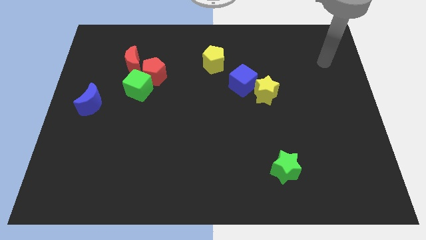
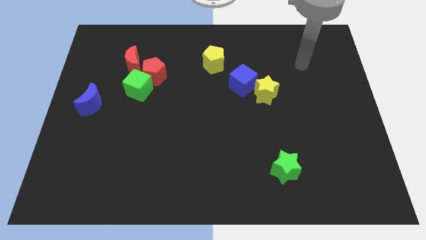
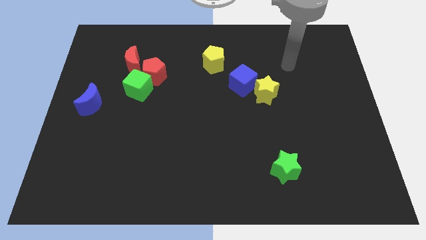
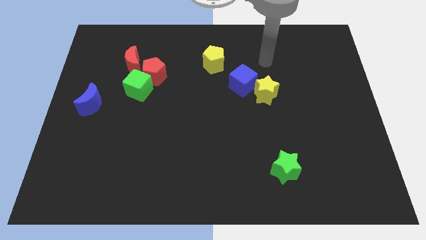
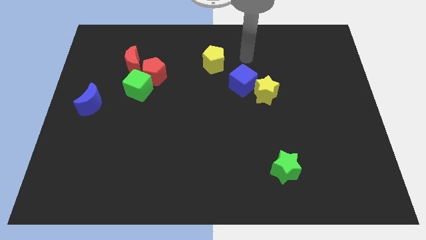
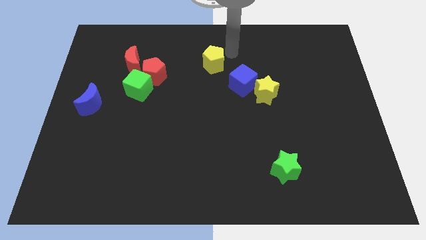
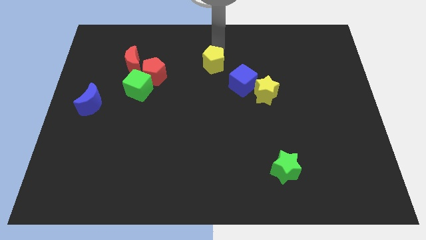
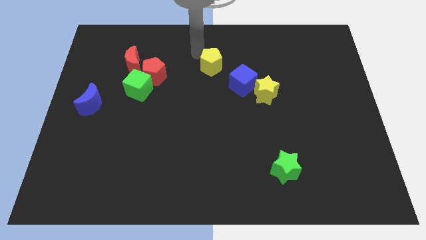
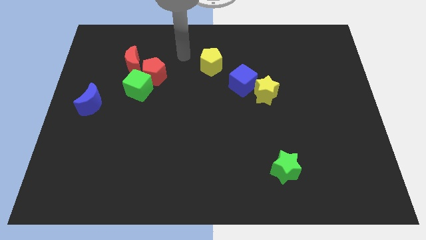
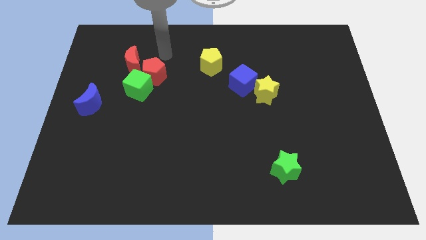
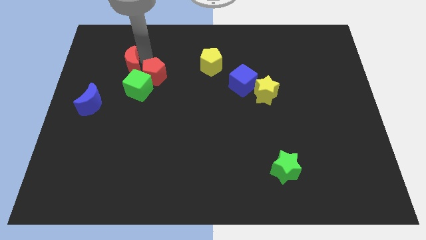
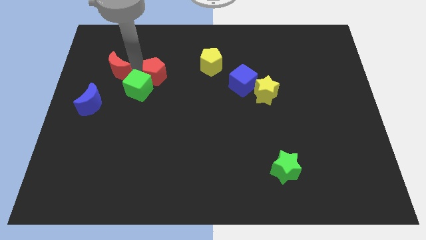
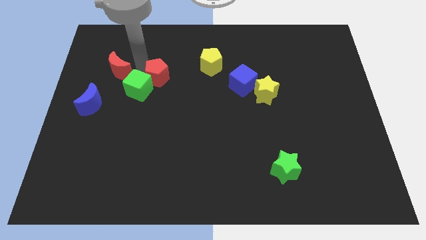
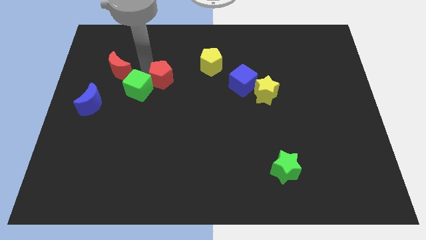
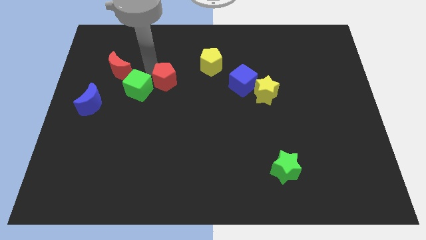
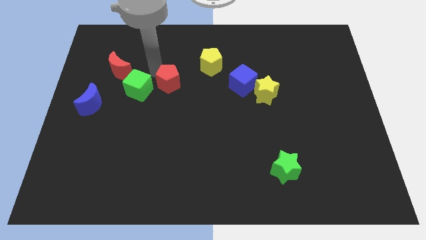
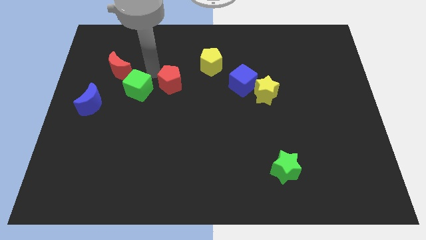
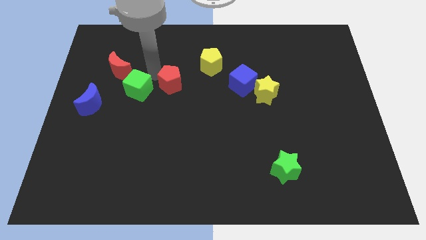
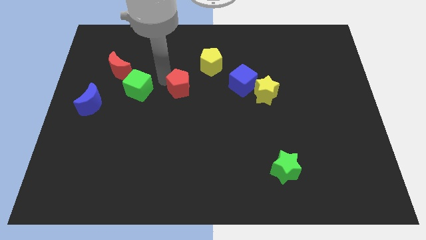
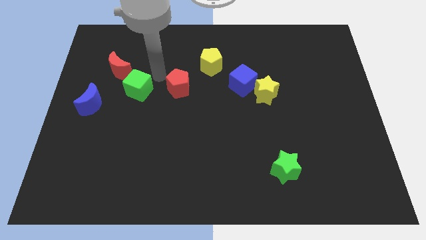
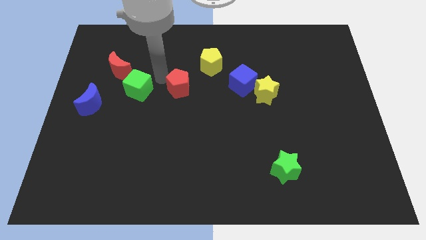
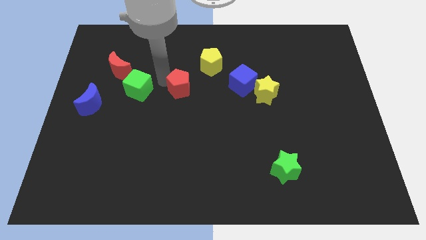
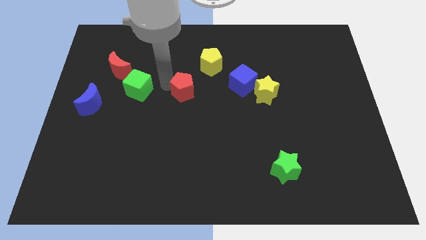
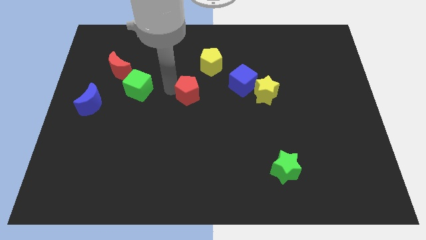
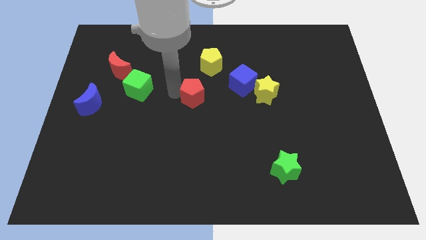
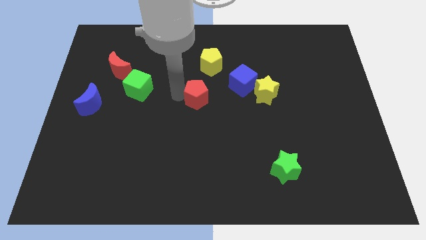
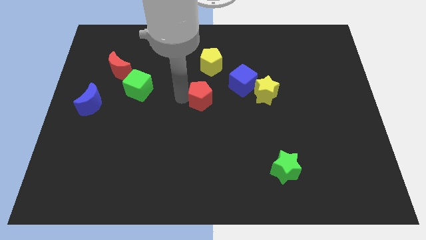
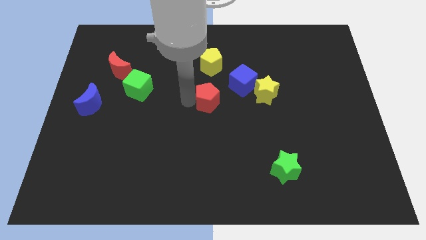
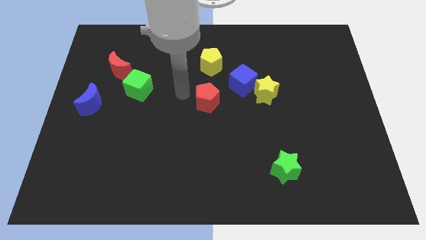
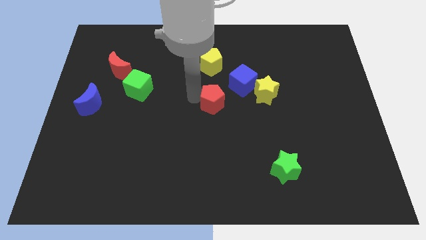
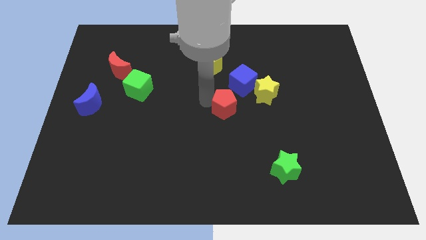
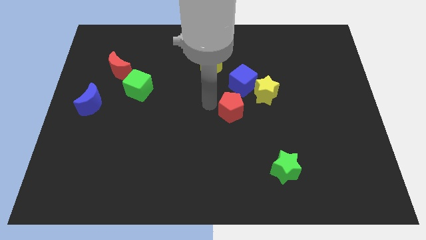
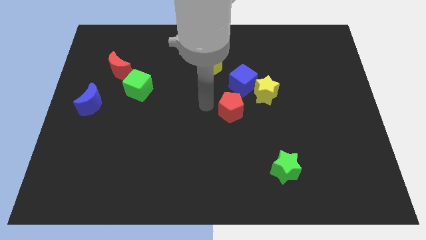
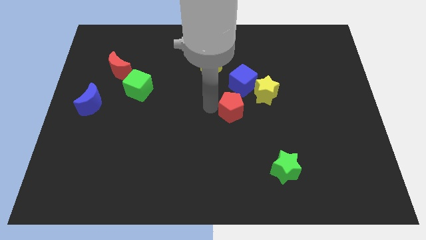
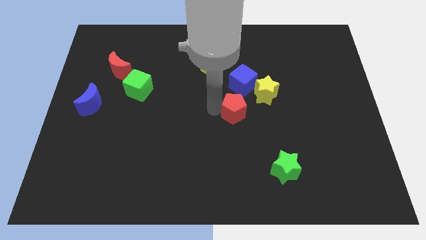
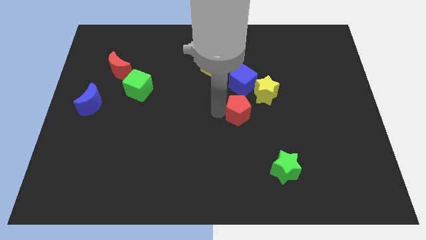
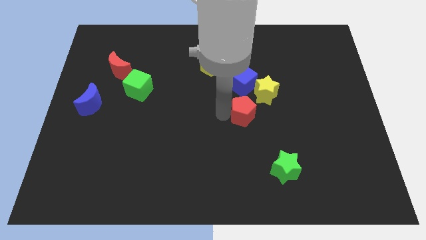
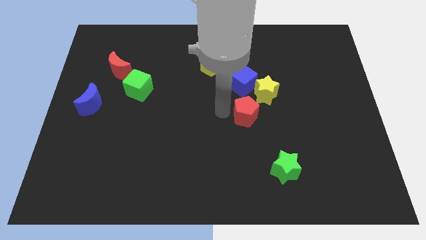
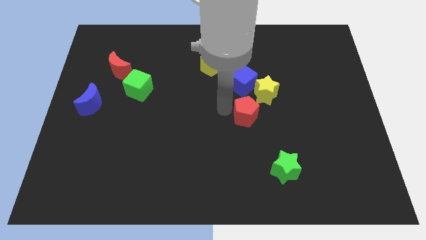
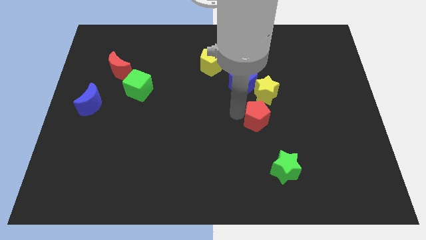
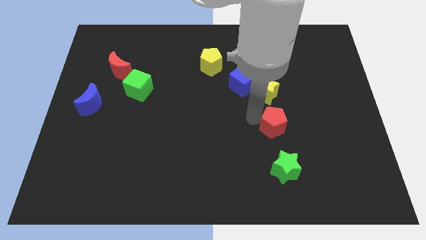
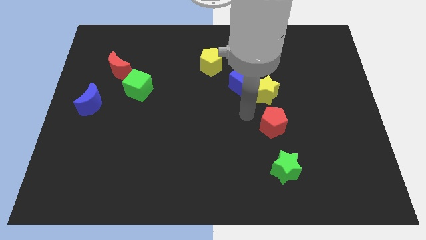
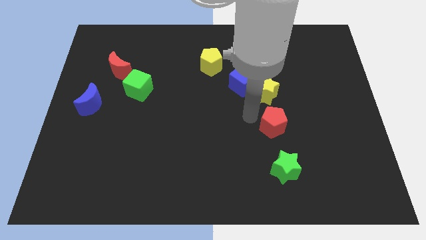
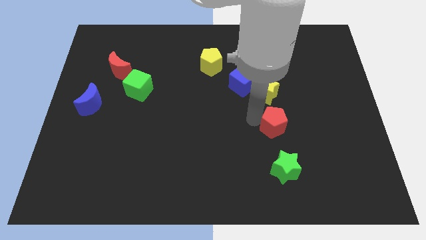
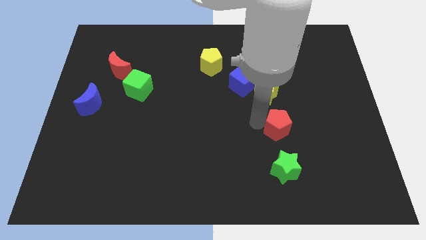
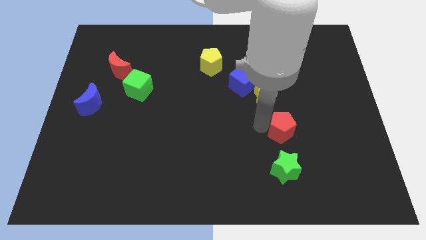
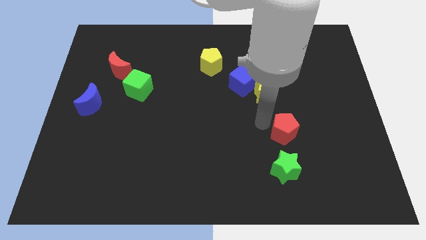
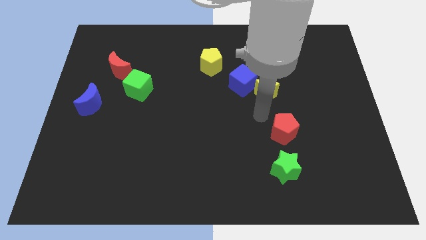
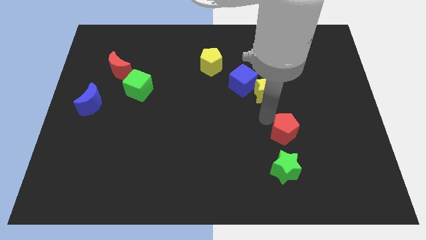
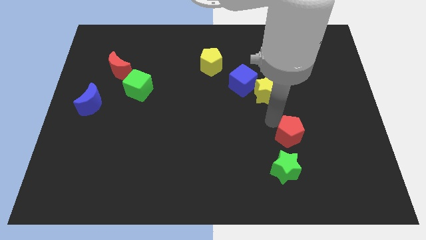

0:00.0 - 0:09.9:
slide the red pentagon to the top right side of the green star

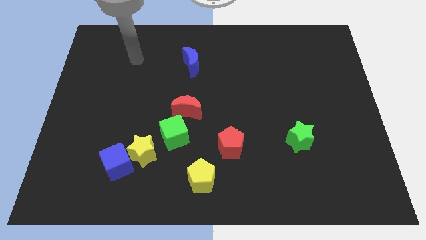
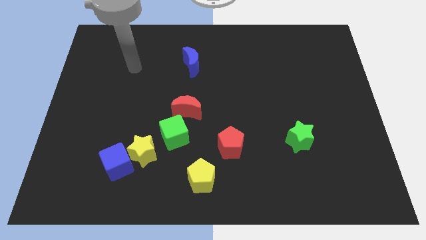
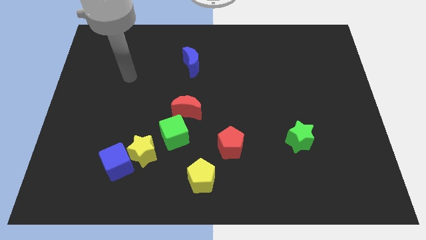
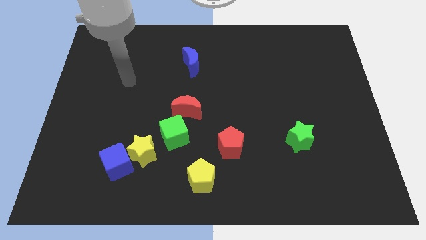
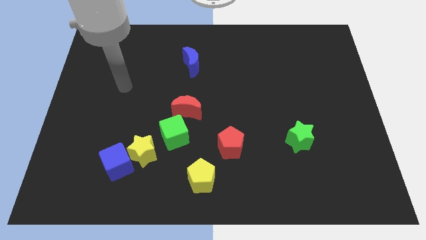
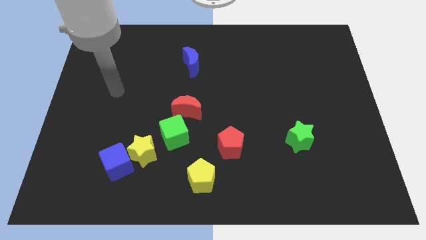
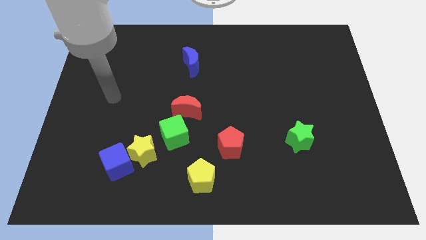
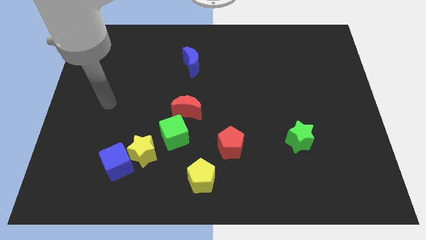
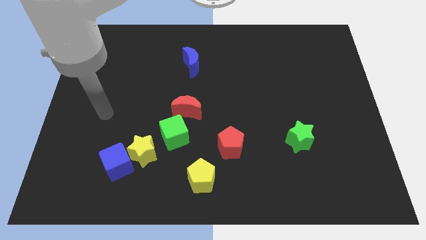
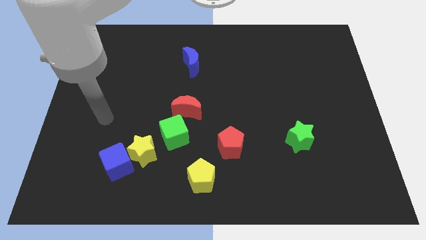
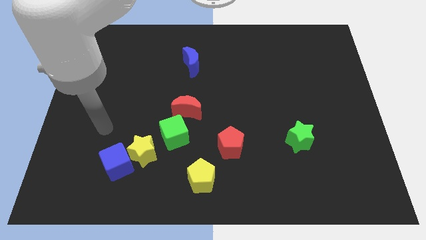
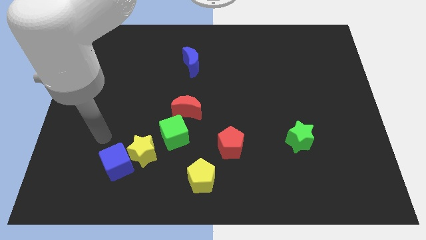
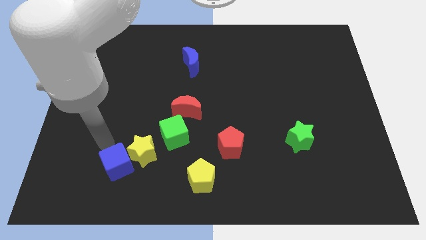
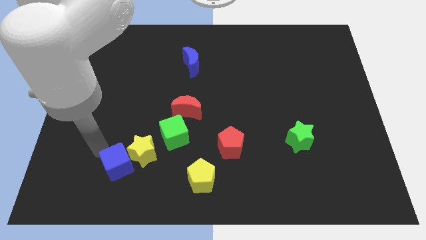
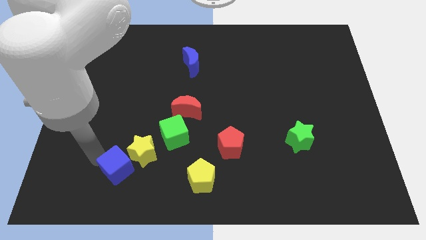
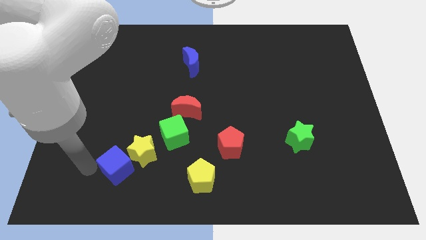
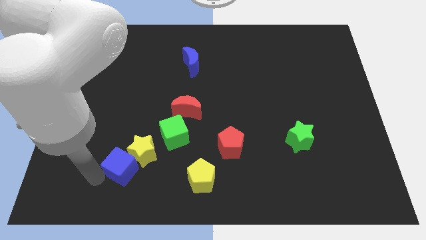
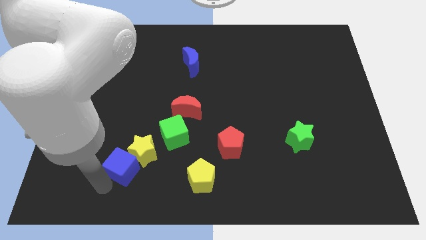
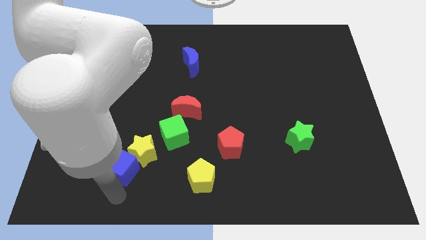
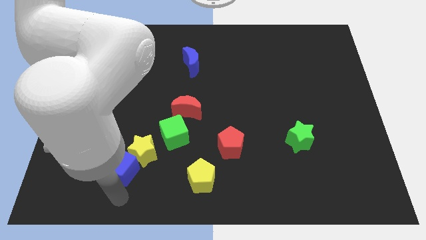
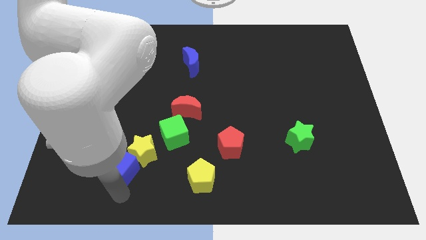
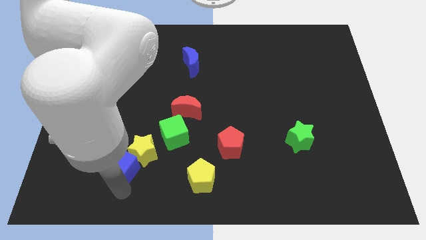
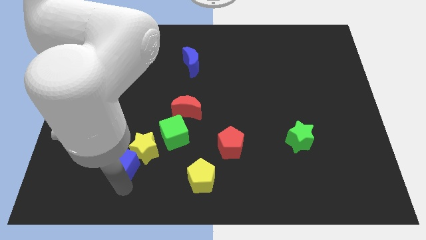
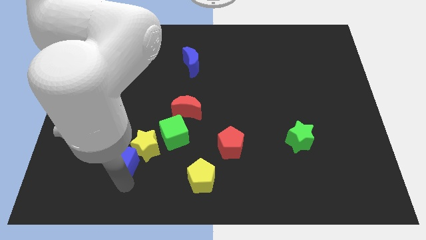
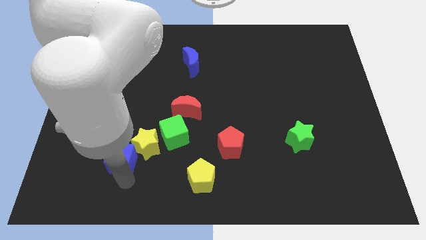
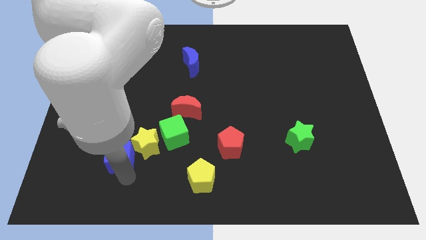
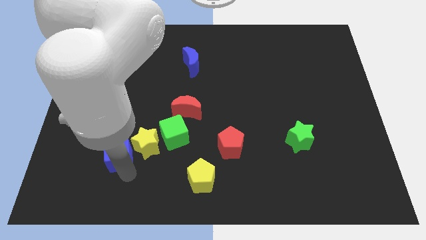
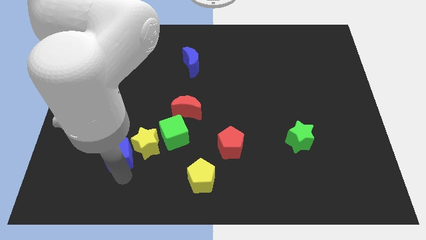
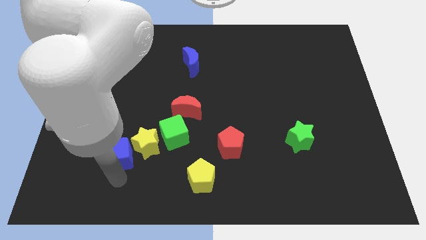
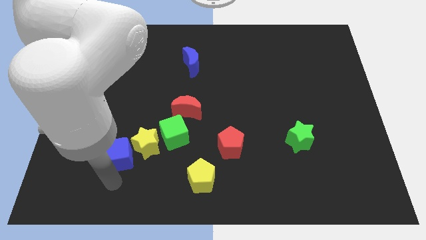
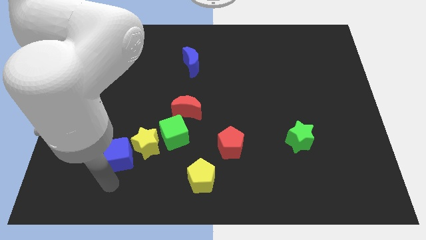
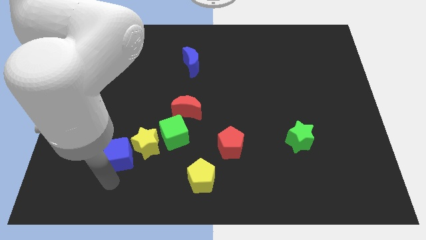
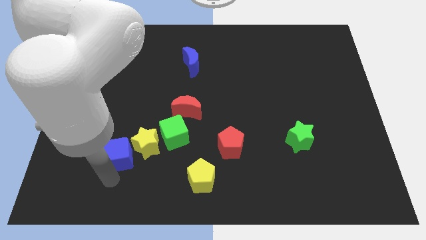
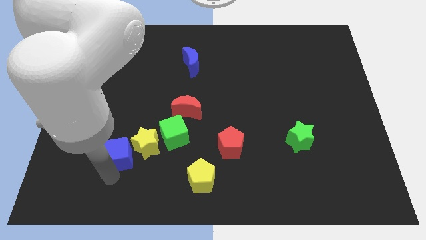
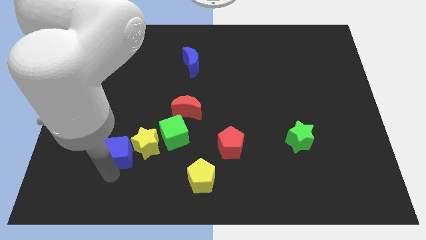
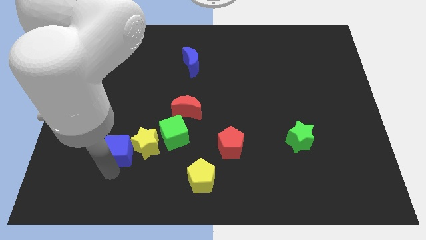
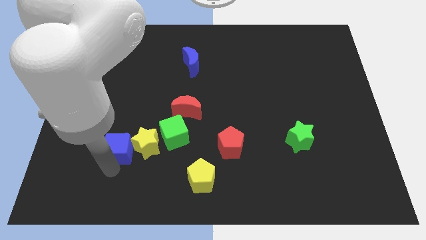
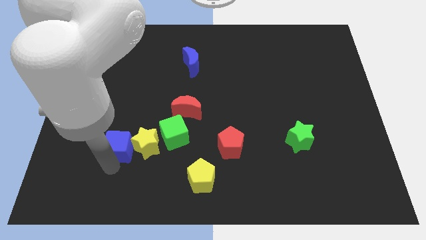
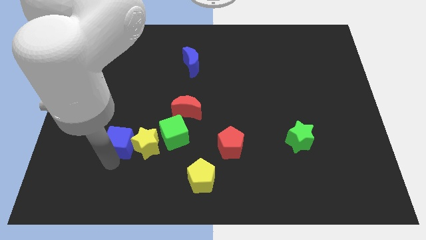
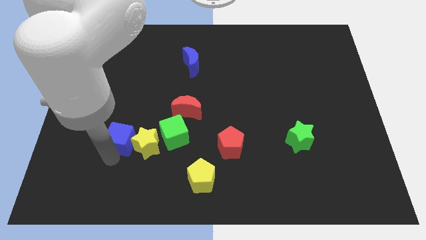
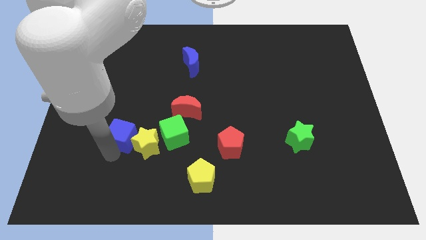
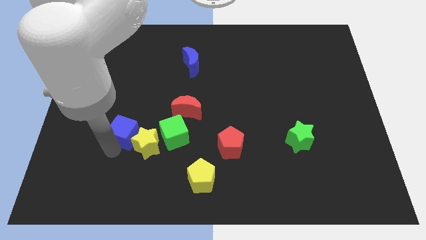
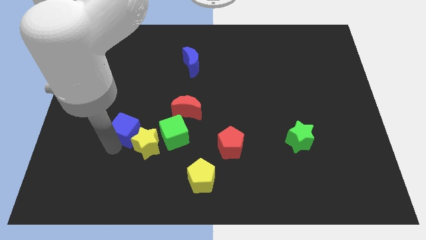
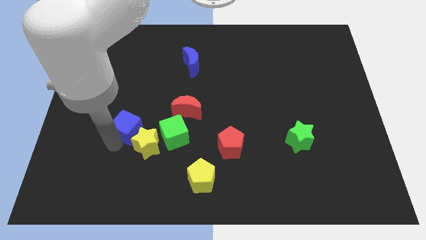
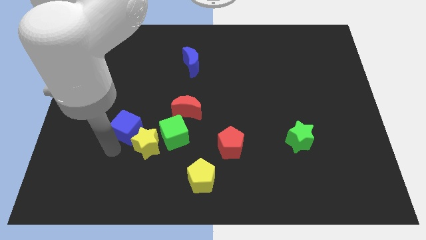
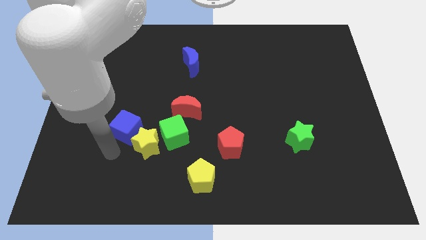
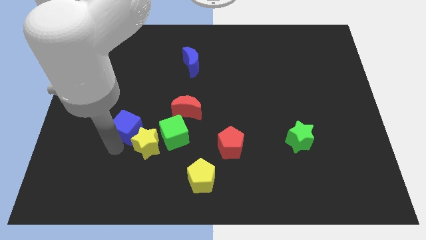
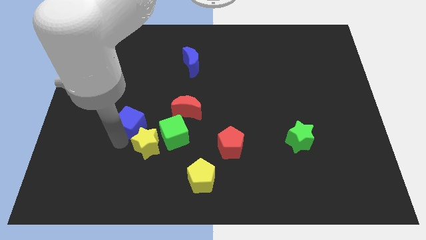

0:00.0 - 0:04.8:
push the blue cube to the left side of the red moon
